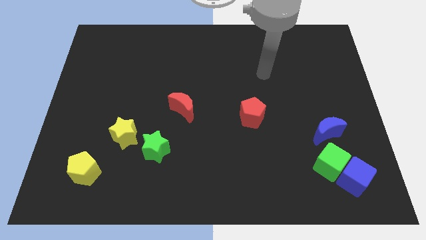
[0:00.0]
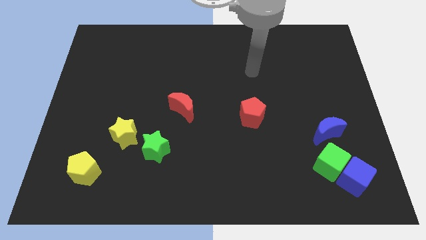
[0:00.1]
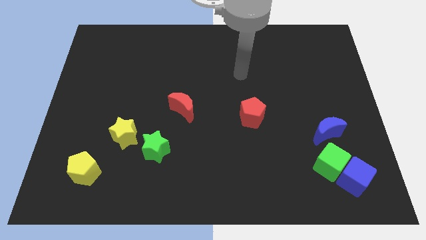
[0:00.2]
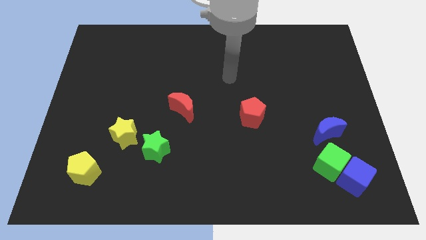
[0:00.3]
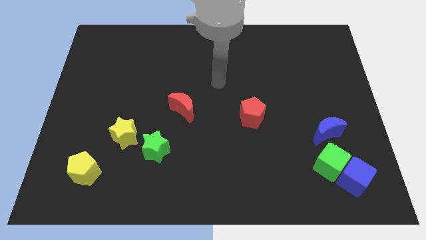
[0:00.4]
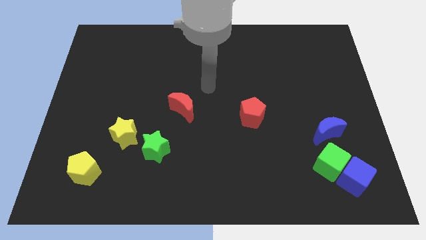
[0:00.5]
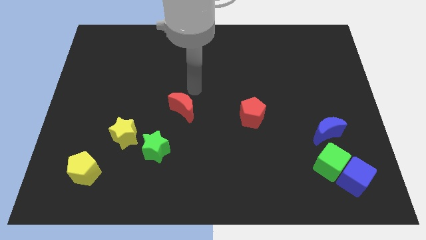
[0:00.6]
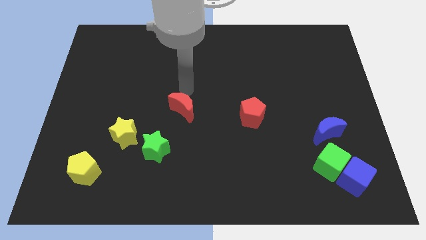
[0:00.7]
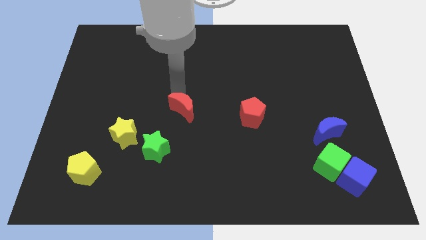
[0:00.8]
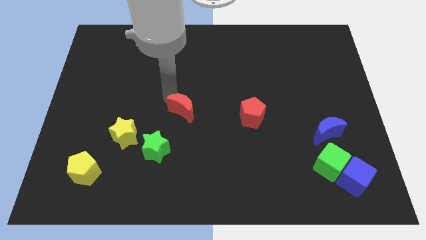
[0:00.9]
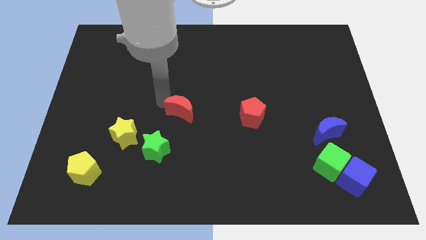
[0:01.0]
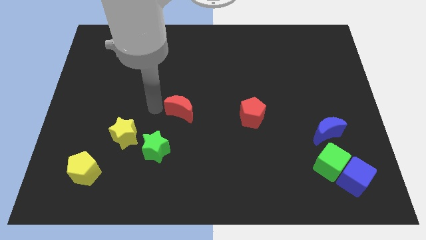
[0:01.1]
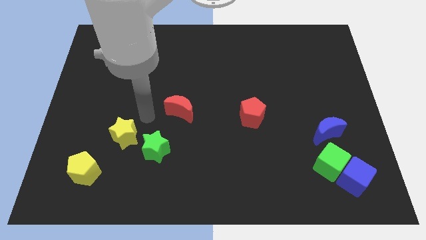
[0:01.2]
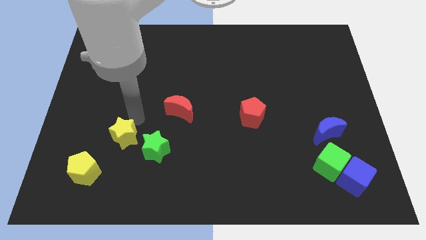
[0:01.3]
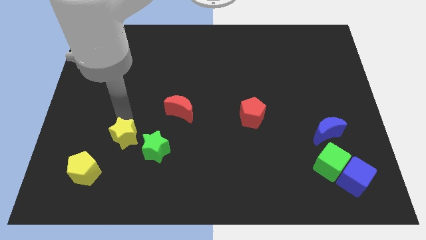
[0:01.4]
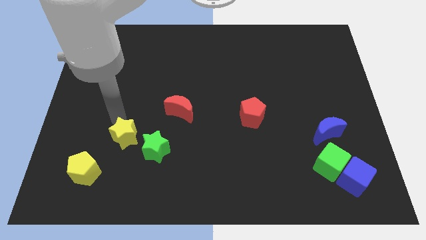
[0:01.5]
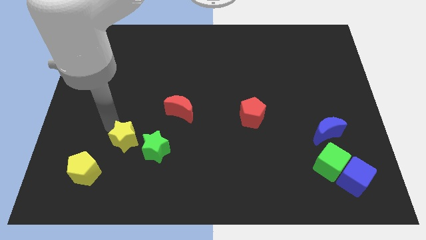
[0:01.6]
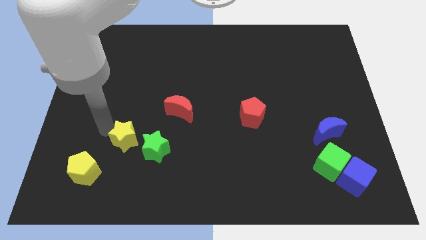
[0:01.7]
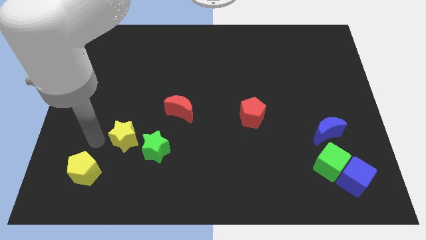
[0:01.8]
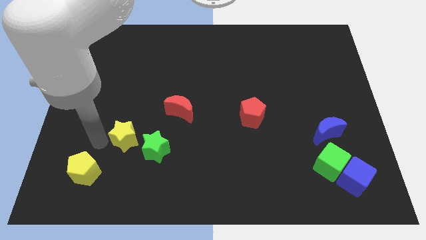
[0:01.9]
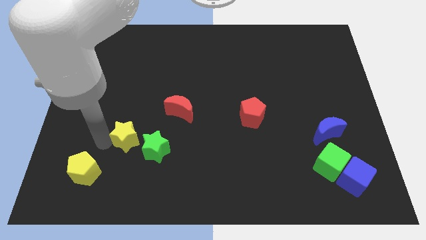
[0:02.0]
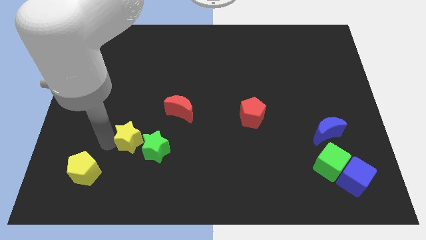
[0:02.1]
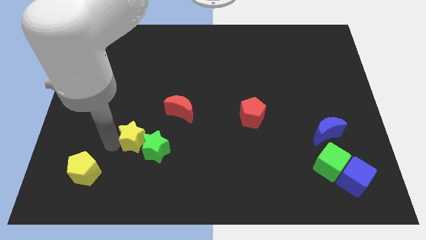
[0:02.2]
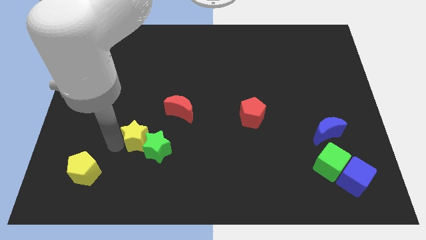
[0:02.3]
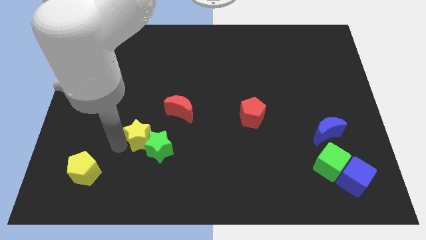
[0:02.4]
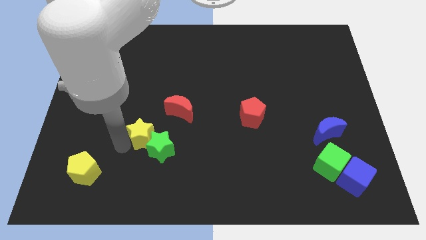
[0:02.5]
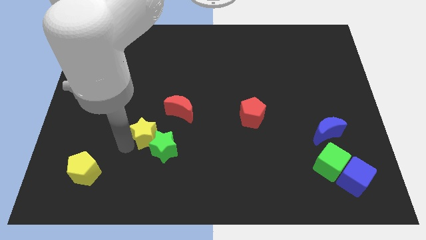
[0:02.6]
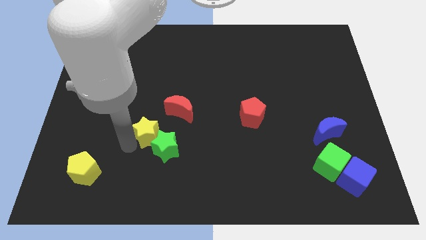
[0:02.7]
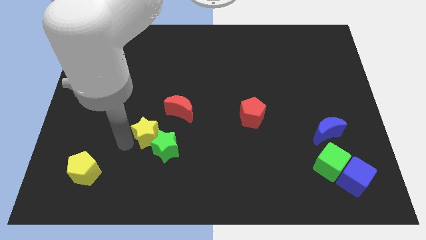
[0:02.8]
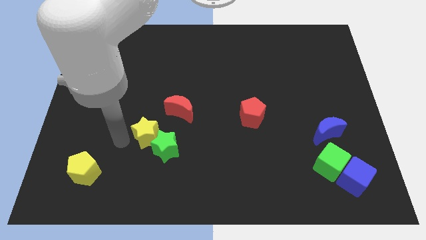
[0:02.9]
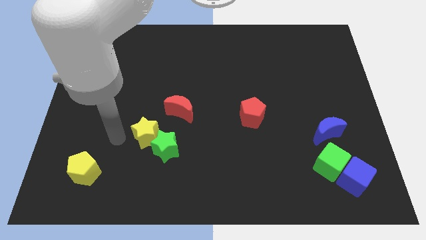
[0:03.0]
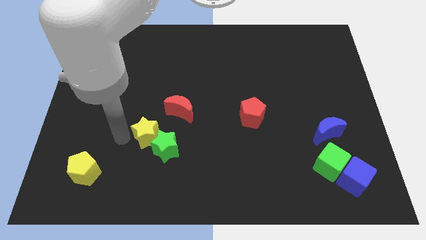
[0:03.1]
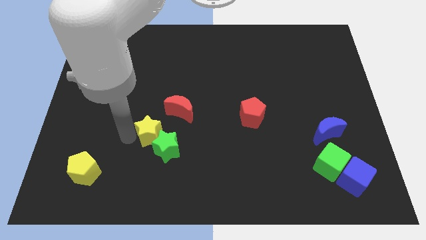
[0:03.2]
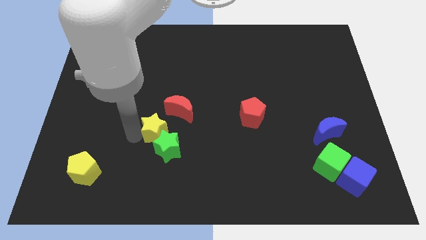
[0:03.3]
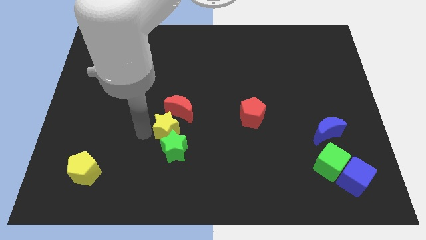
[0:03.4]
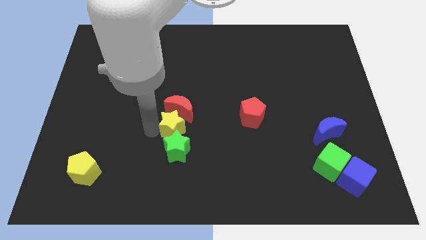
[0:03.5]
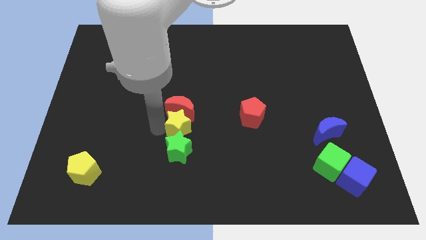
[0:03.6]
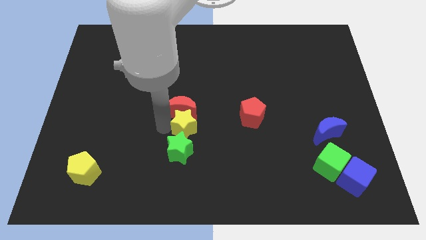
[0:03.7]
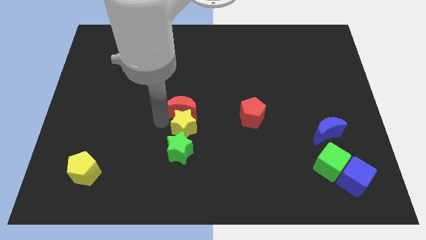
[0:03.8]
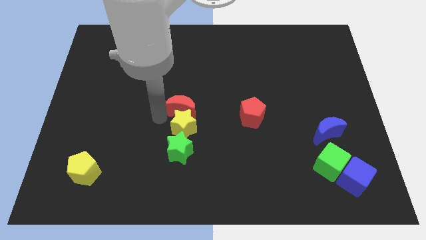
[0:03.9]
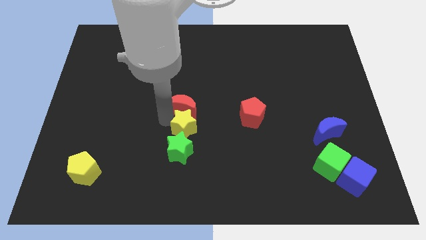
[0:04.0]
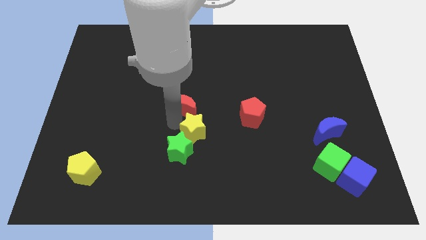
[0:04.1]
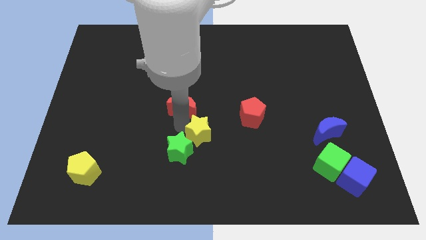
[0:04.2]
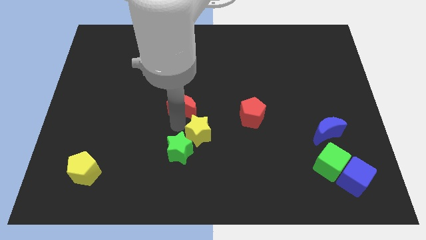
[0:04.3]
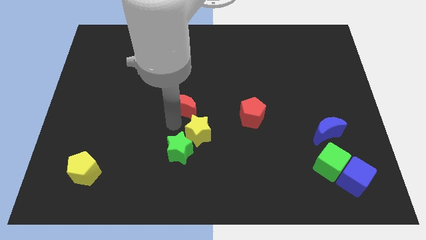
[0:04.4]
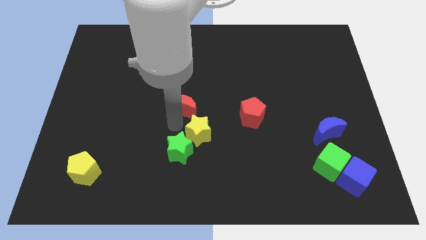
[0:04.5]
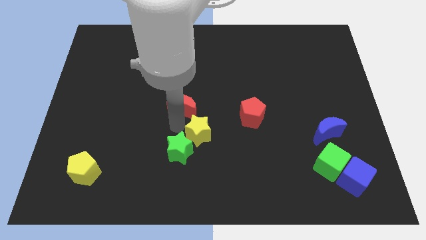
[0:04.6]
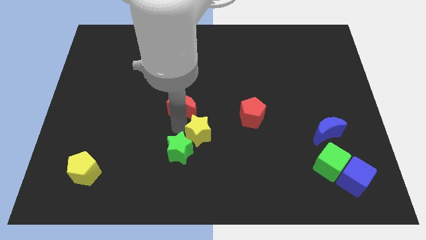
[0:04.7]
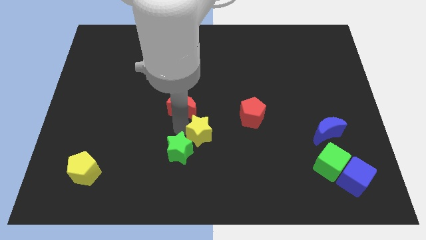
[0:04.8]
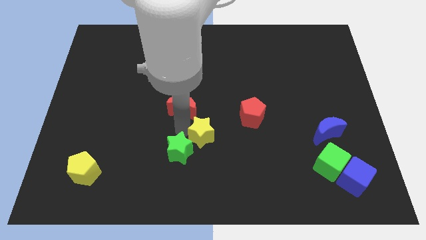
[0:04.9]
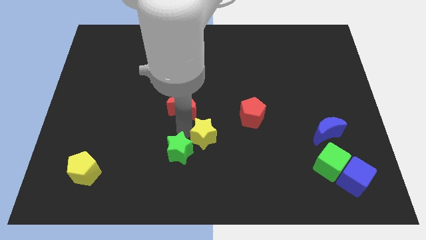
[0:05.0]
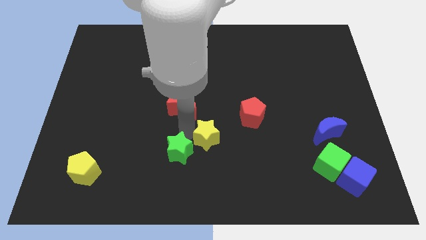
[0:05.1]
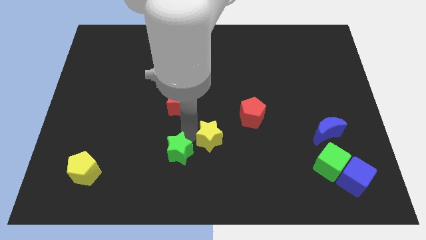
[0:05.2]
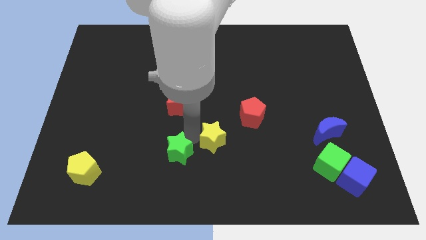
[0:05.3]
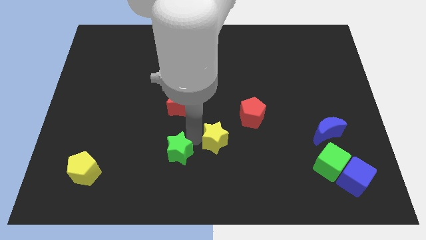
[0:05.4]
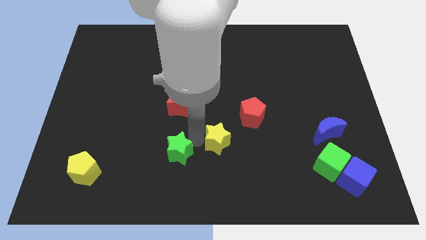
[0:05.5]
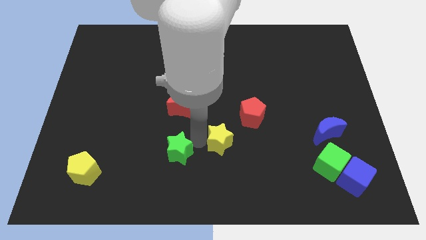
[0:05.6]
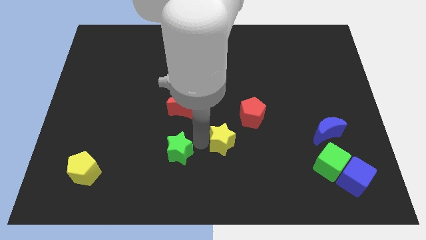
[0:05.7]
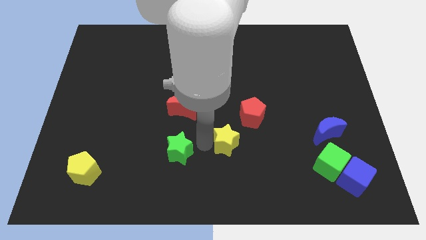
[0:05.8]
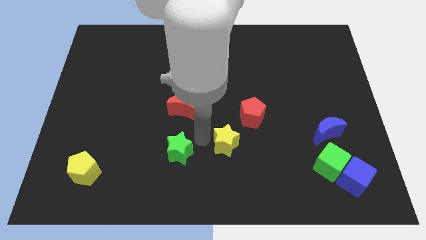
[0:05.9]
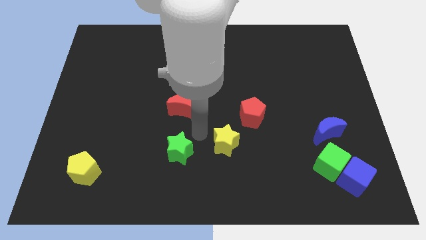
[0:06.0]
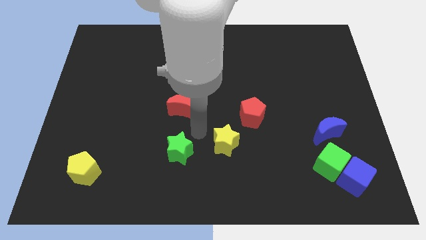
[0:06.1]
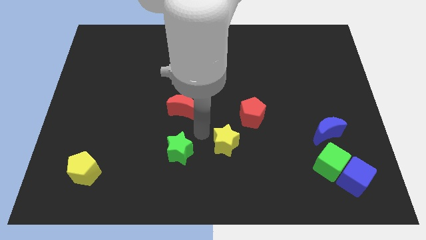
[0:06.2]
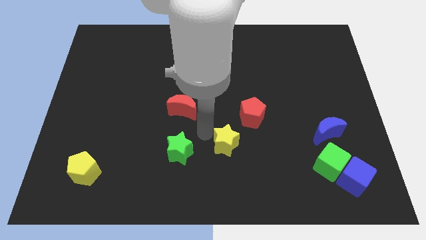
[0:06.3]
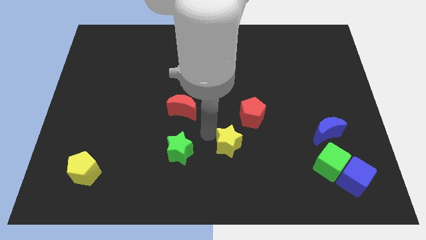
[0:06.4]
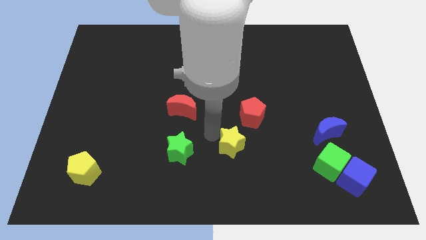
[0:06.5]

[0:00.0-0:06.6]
move the yellow star to the bottom of the red pentagon

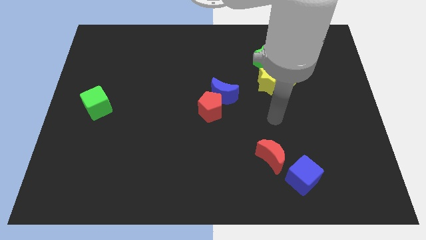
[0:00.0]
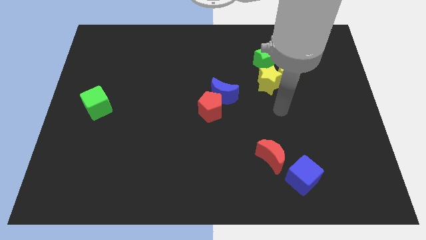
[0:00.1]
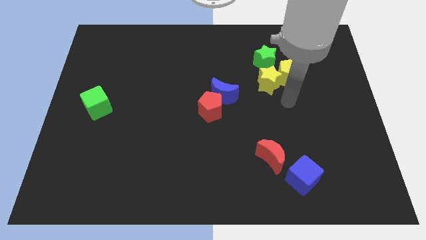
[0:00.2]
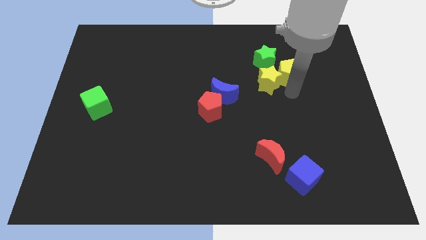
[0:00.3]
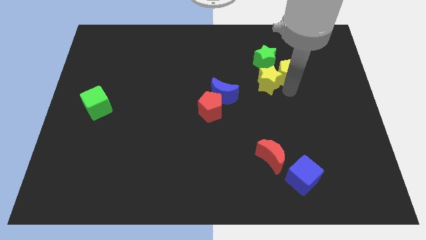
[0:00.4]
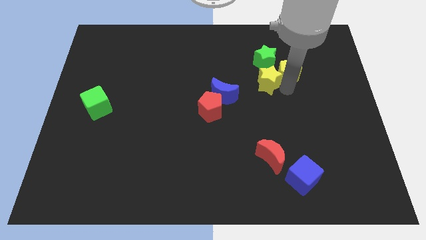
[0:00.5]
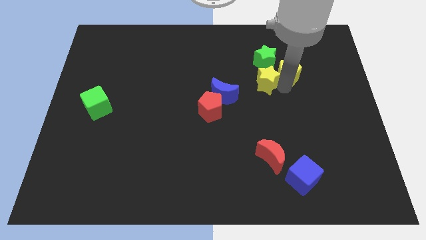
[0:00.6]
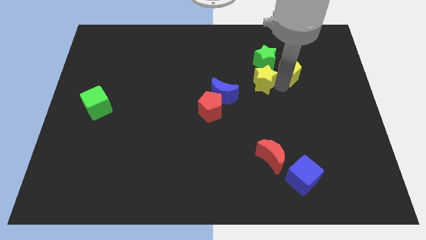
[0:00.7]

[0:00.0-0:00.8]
slide the yellow star to the bottom left of the green star
